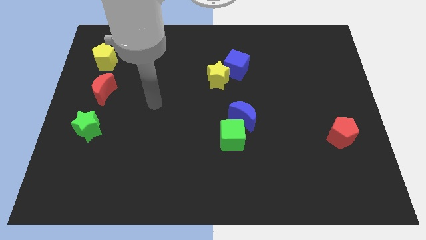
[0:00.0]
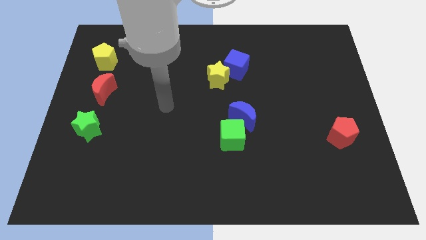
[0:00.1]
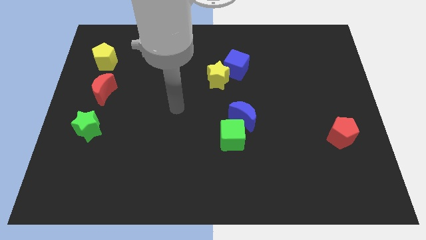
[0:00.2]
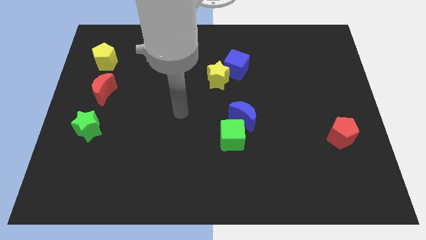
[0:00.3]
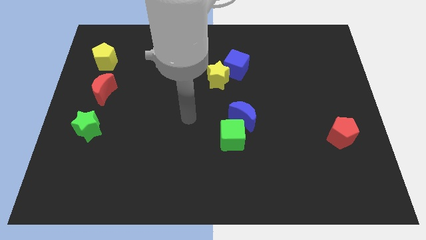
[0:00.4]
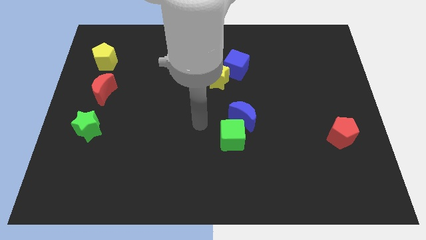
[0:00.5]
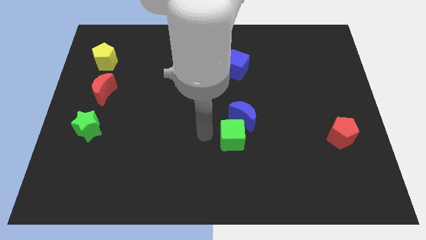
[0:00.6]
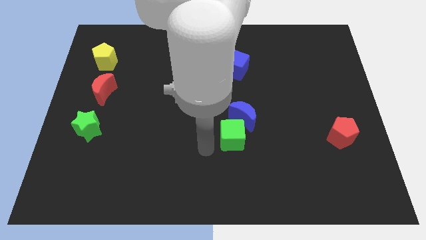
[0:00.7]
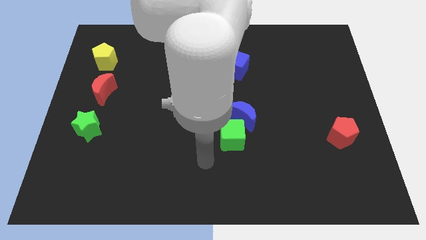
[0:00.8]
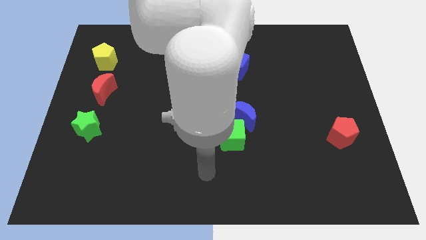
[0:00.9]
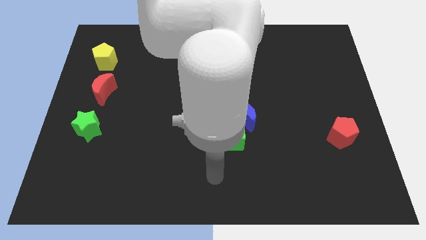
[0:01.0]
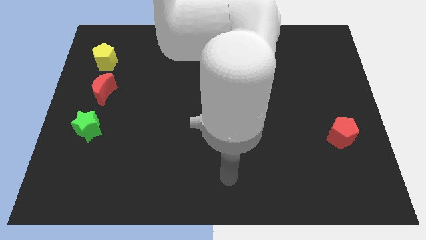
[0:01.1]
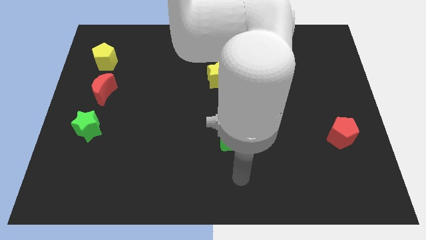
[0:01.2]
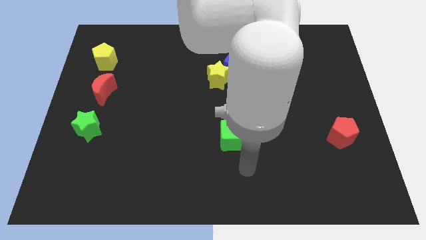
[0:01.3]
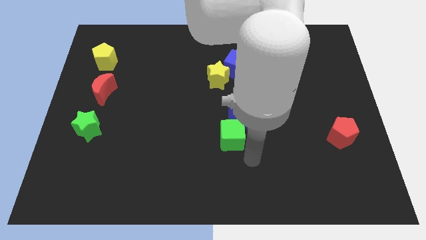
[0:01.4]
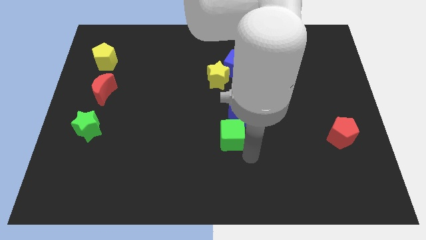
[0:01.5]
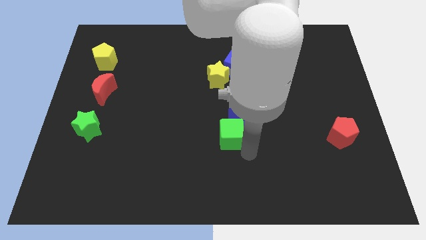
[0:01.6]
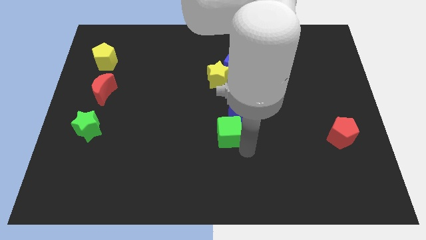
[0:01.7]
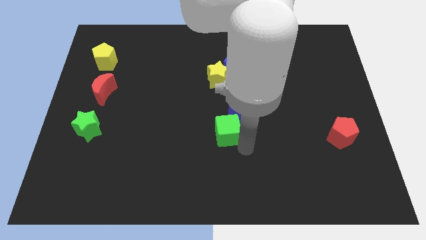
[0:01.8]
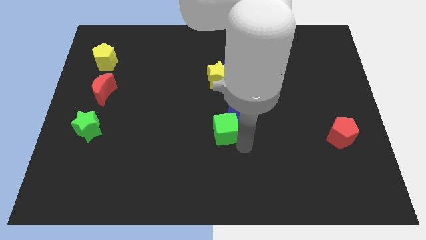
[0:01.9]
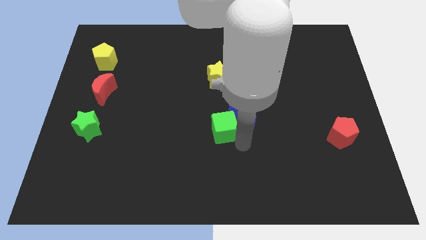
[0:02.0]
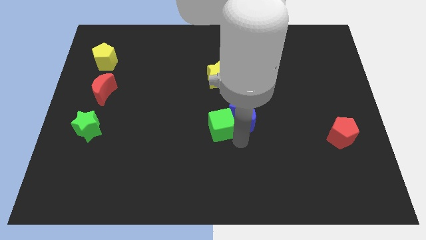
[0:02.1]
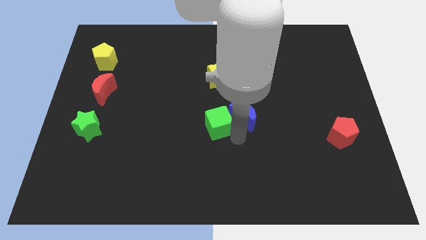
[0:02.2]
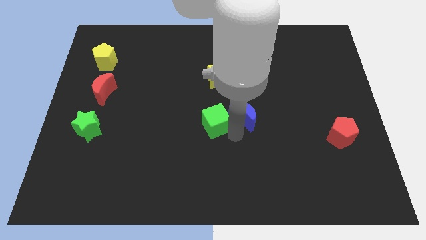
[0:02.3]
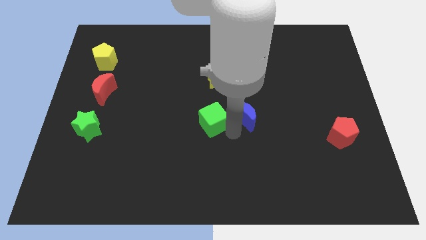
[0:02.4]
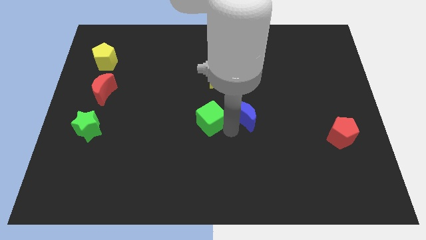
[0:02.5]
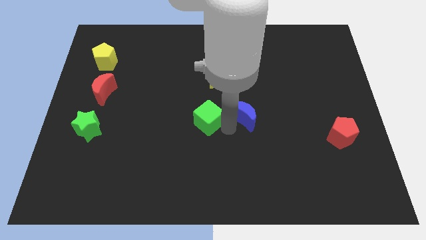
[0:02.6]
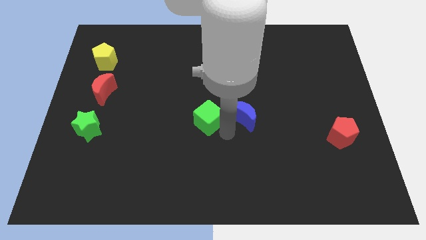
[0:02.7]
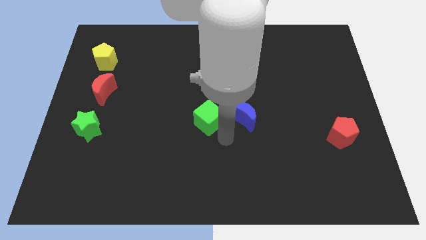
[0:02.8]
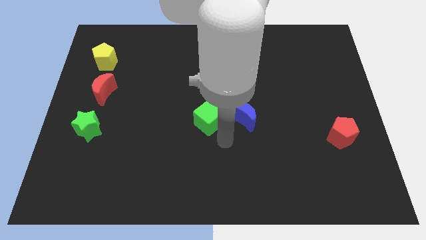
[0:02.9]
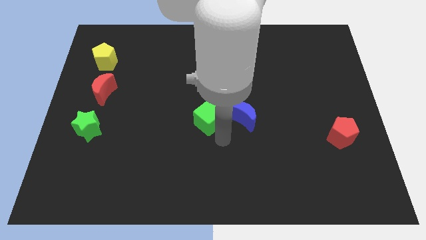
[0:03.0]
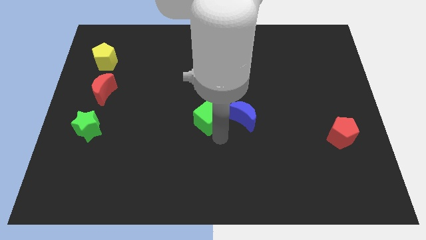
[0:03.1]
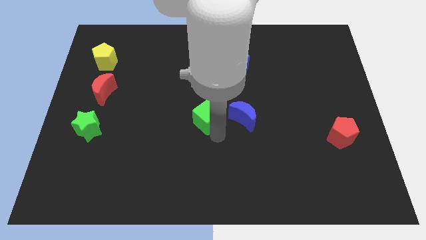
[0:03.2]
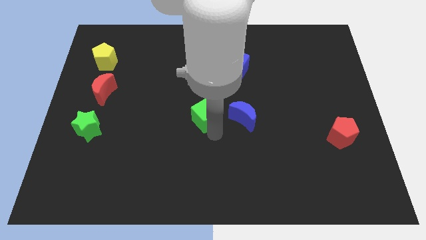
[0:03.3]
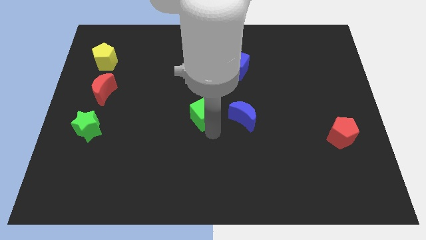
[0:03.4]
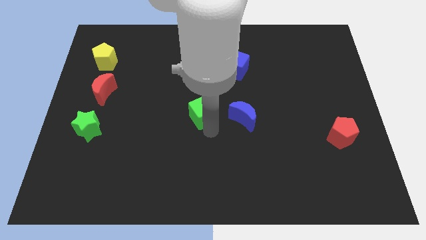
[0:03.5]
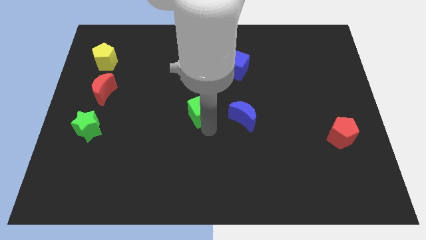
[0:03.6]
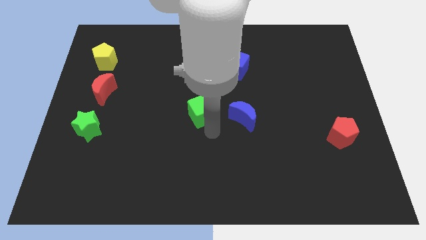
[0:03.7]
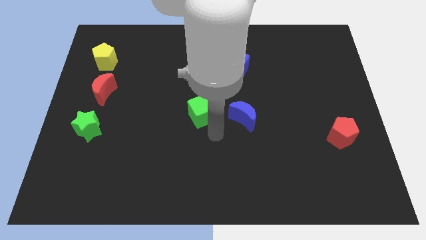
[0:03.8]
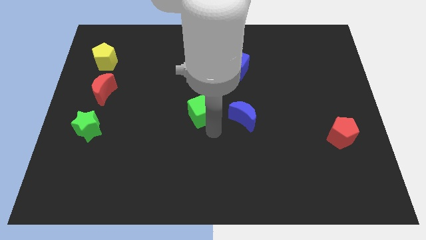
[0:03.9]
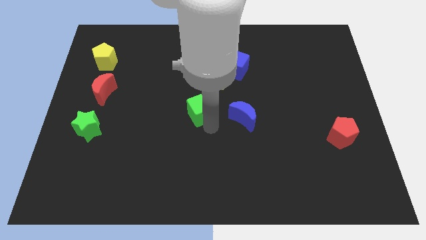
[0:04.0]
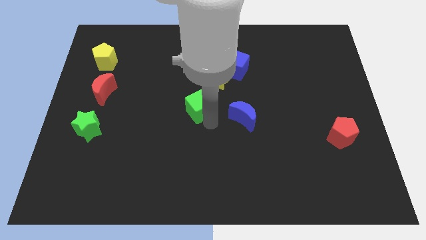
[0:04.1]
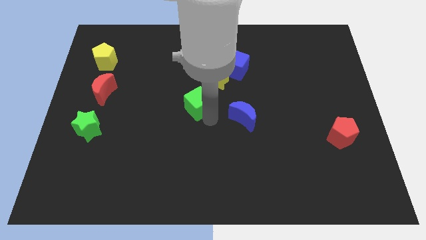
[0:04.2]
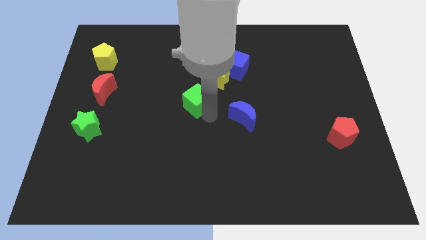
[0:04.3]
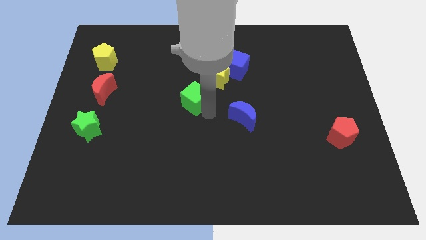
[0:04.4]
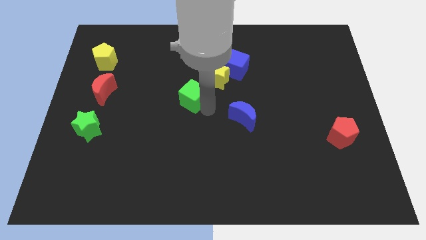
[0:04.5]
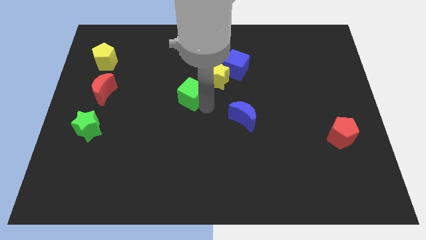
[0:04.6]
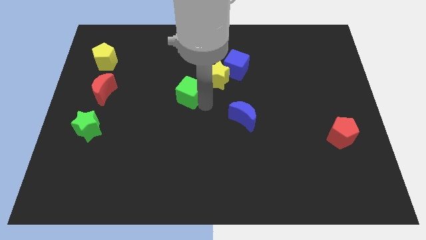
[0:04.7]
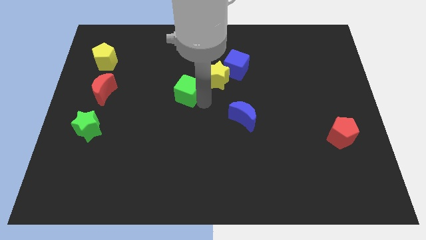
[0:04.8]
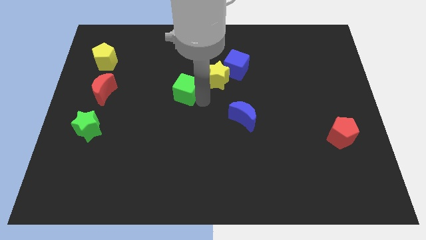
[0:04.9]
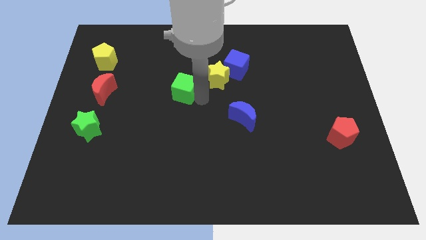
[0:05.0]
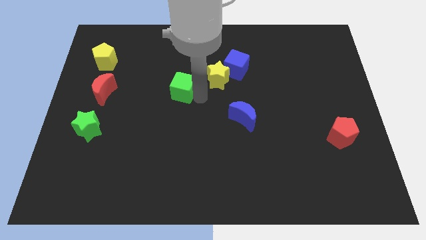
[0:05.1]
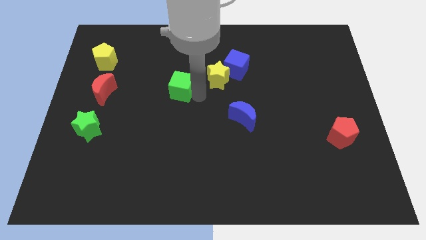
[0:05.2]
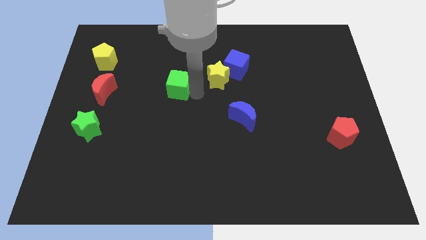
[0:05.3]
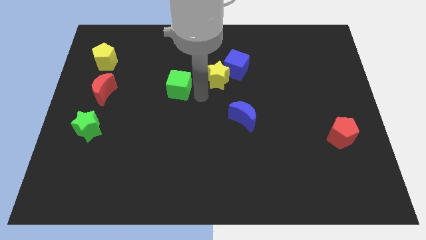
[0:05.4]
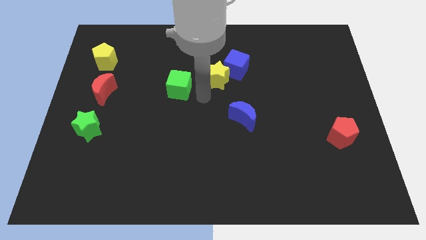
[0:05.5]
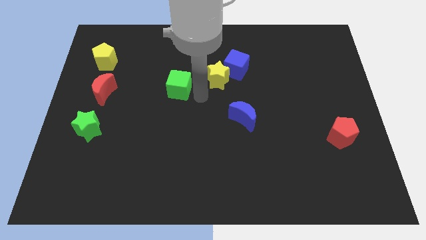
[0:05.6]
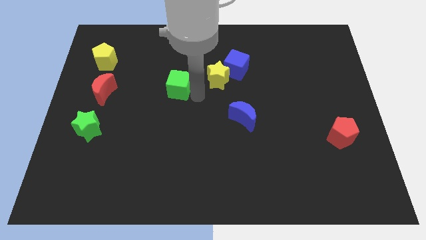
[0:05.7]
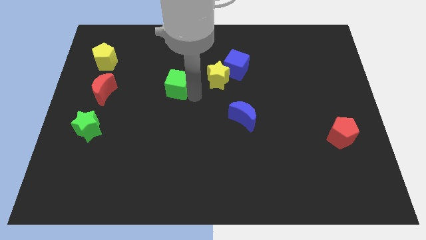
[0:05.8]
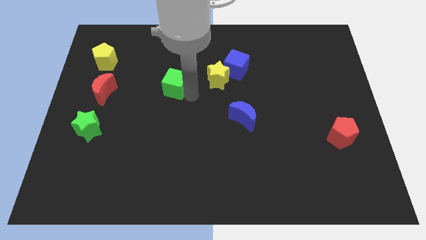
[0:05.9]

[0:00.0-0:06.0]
slide the green cube up and to the left diagonally

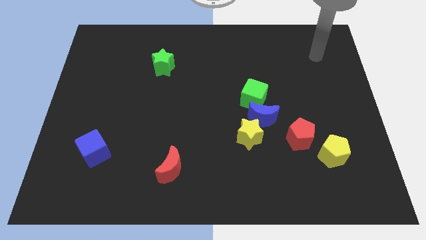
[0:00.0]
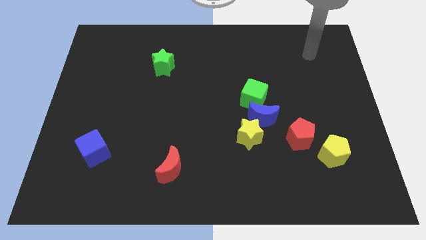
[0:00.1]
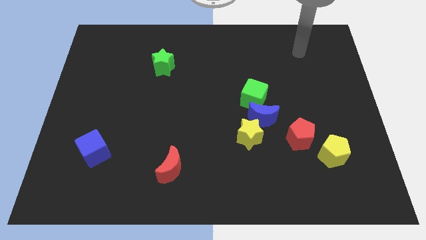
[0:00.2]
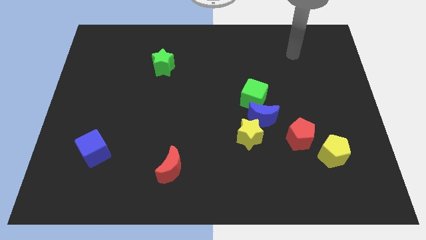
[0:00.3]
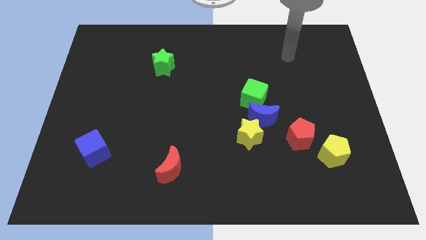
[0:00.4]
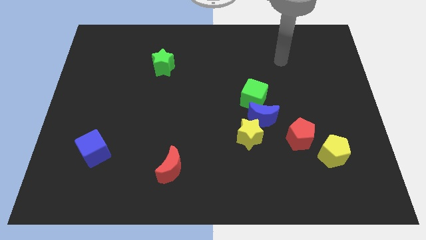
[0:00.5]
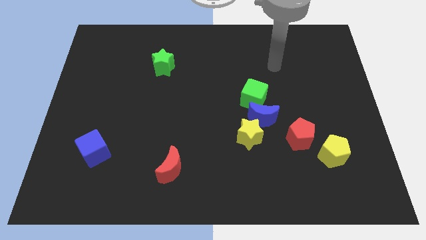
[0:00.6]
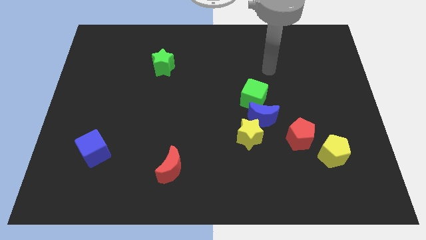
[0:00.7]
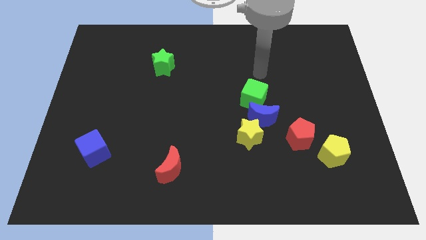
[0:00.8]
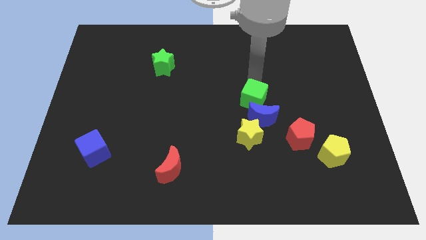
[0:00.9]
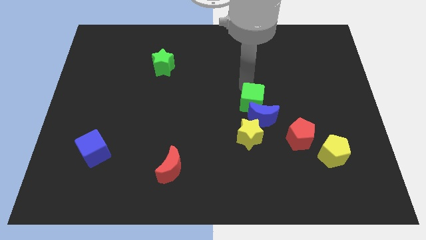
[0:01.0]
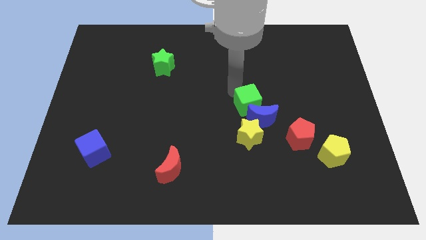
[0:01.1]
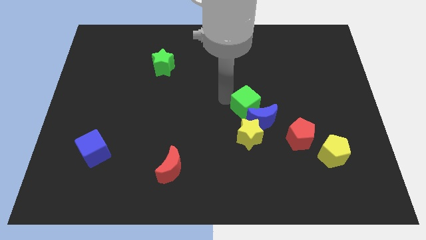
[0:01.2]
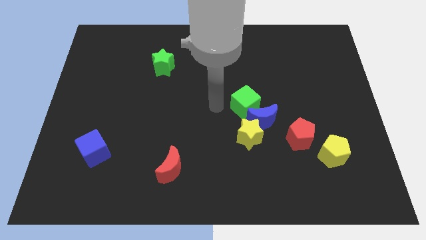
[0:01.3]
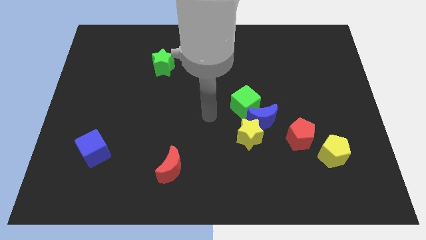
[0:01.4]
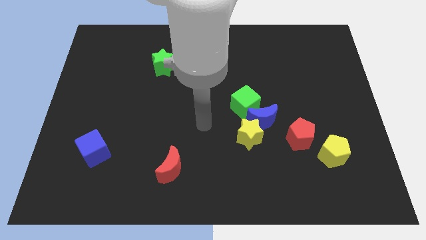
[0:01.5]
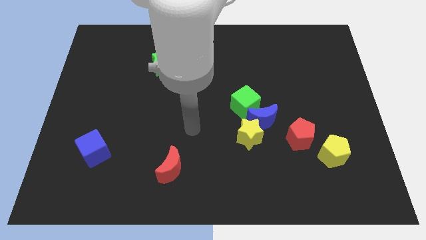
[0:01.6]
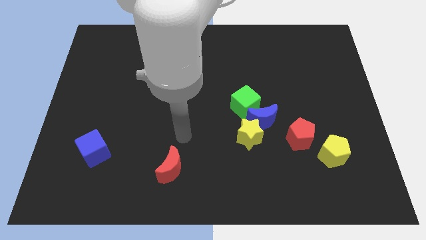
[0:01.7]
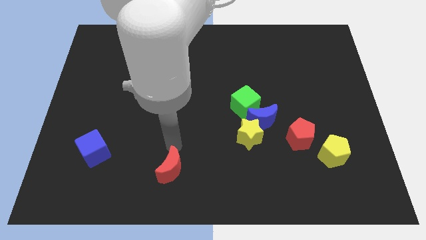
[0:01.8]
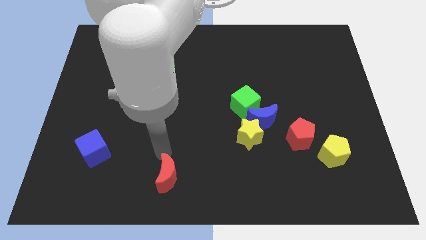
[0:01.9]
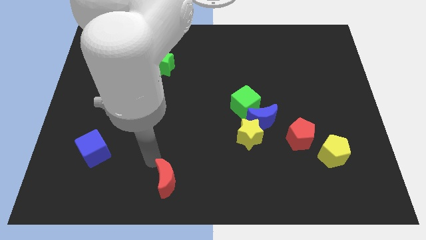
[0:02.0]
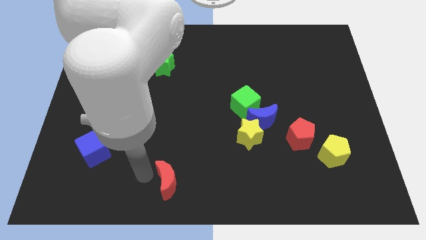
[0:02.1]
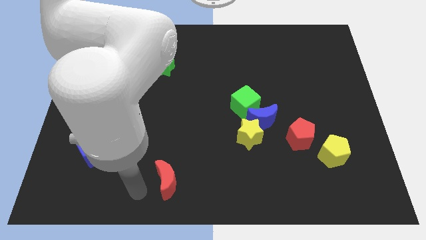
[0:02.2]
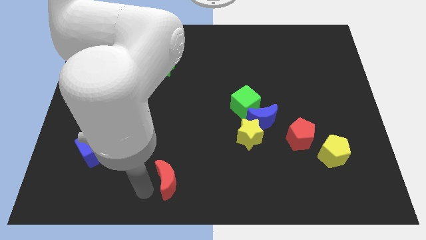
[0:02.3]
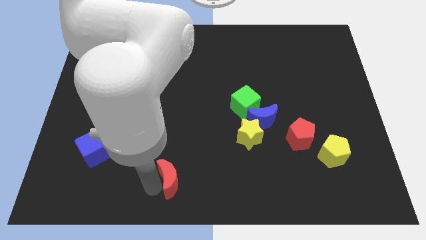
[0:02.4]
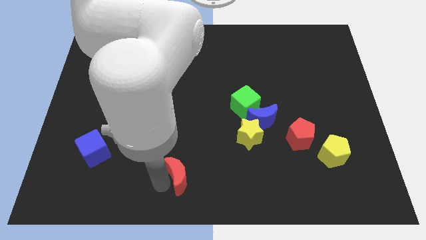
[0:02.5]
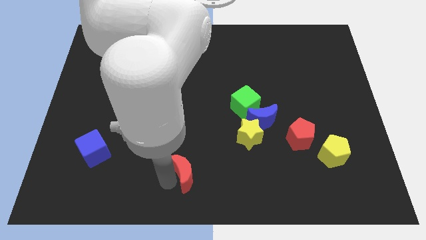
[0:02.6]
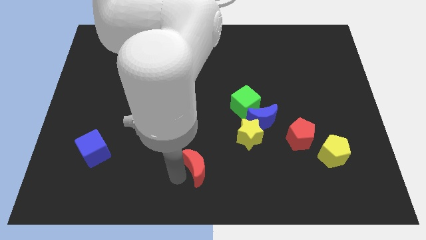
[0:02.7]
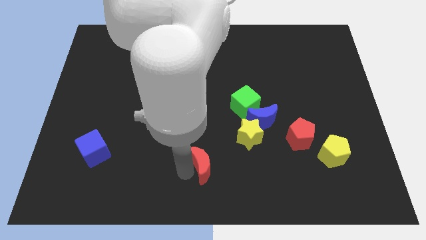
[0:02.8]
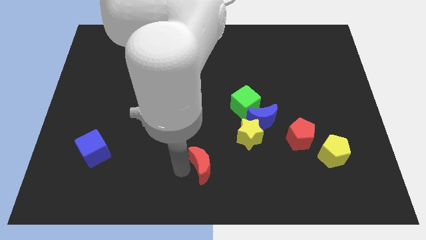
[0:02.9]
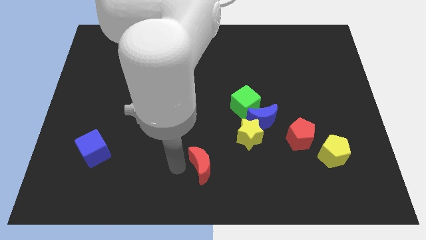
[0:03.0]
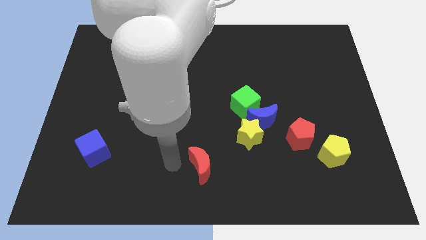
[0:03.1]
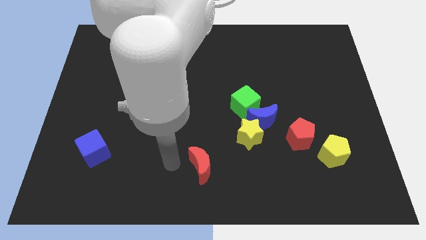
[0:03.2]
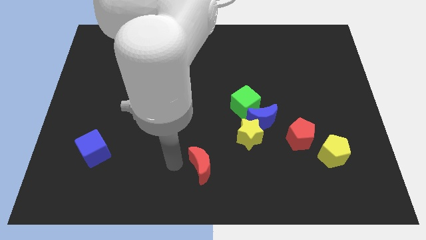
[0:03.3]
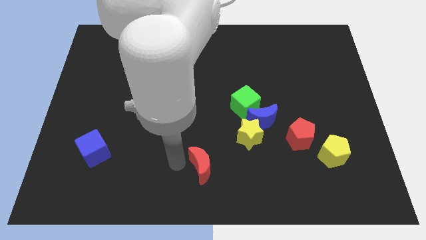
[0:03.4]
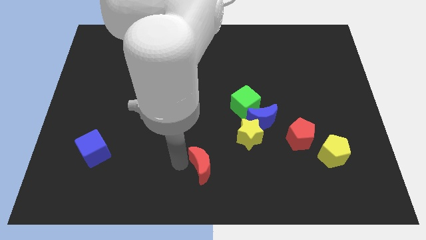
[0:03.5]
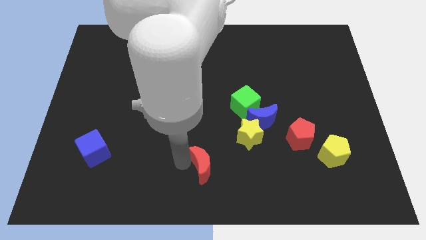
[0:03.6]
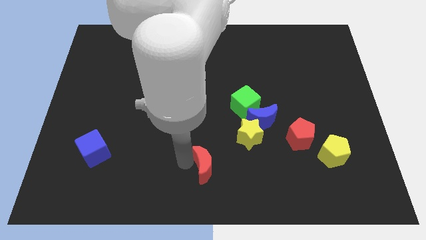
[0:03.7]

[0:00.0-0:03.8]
slightly move the red moon right
